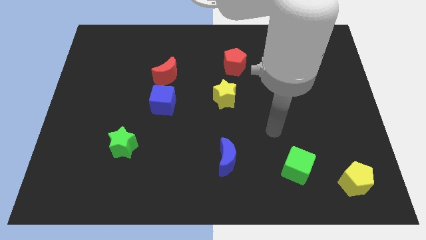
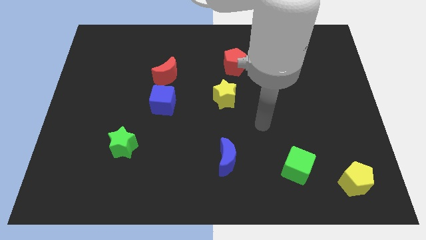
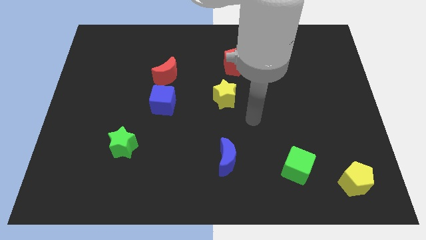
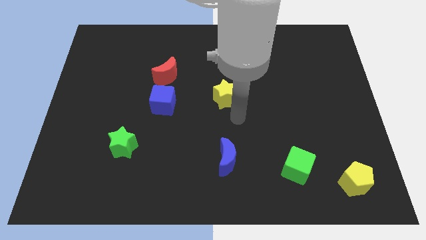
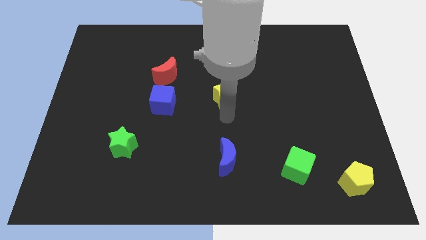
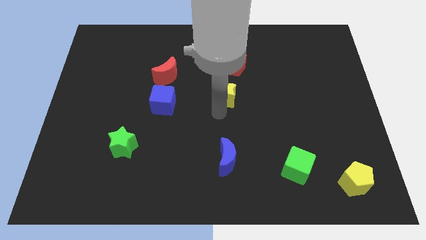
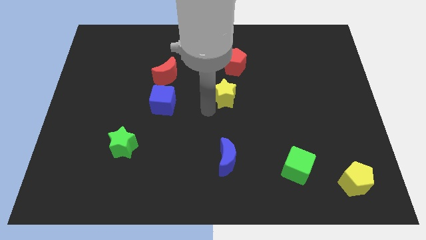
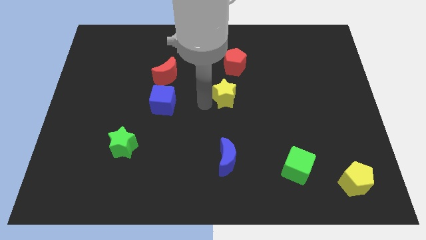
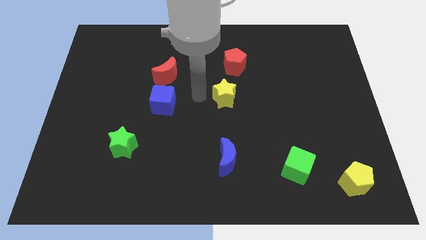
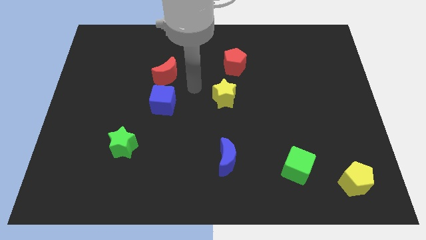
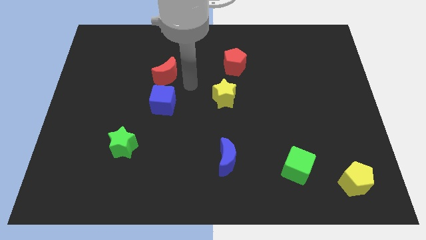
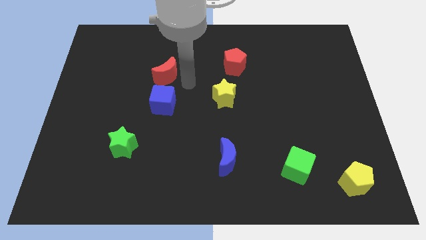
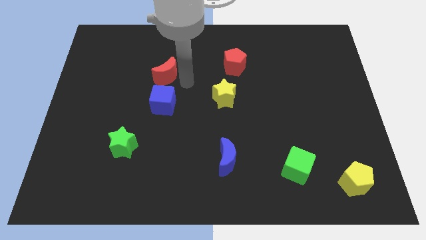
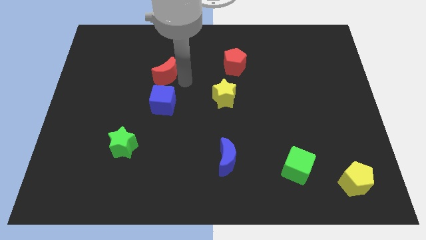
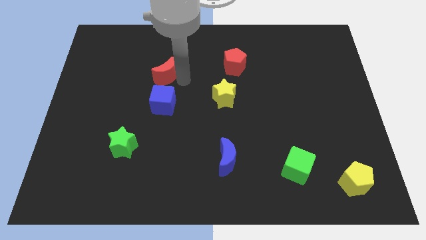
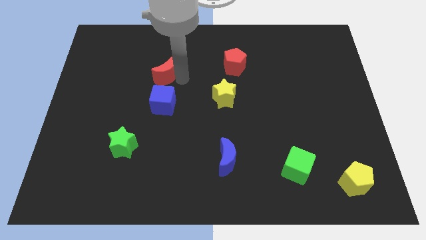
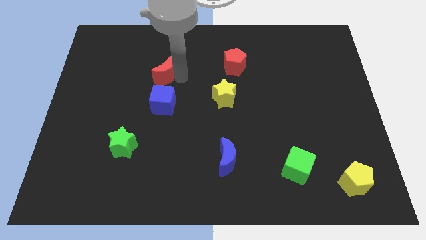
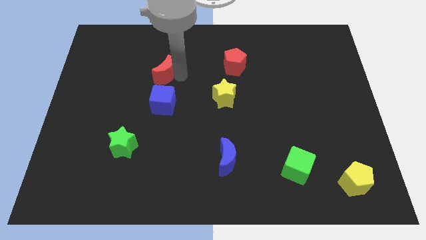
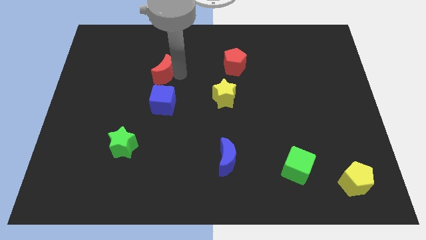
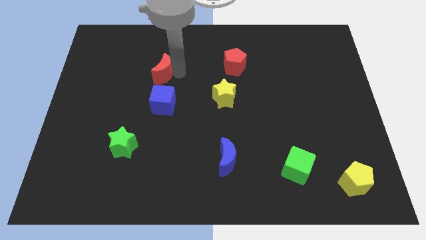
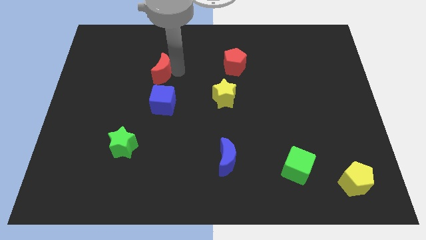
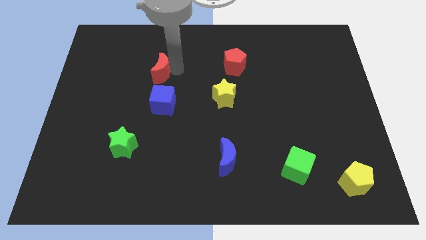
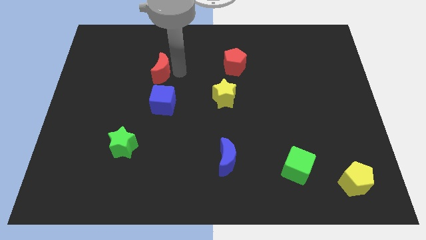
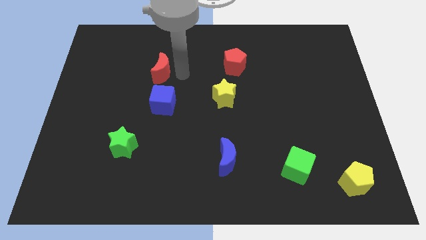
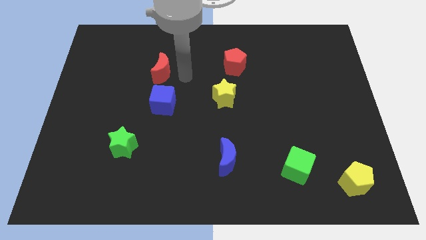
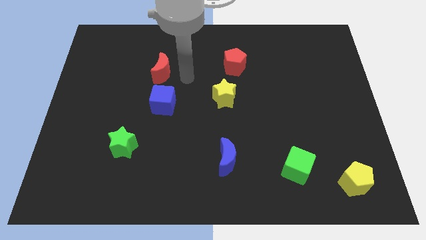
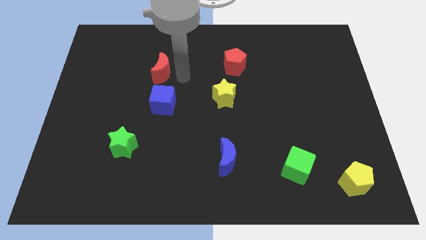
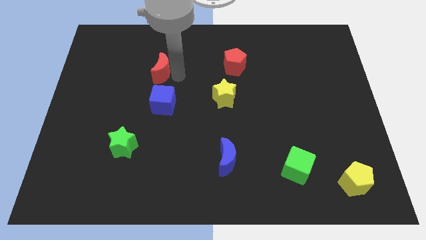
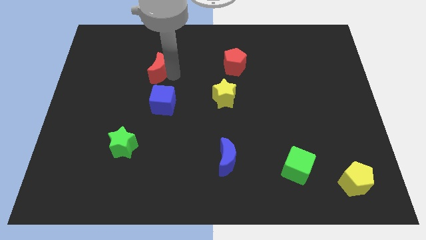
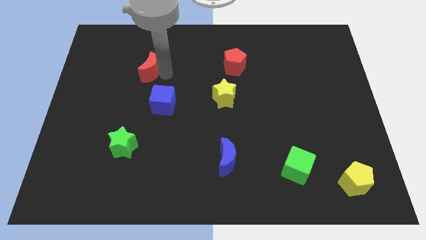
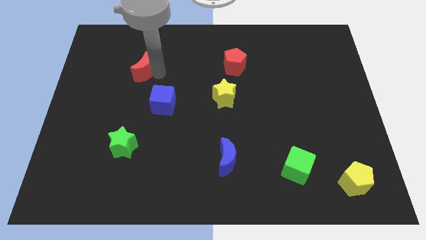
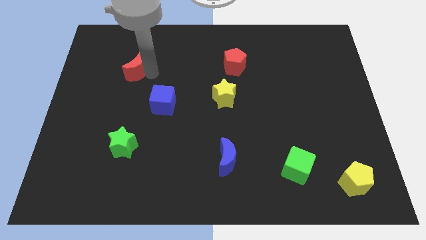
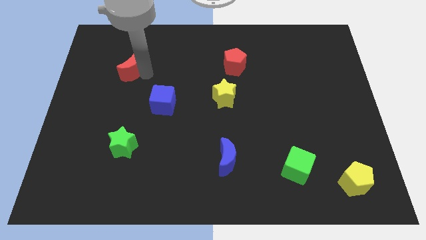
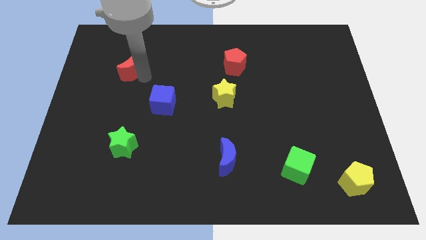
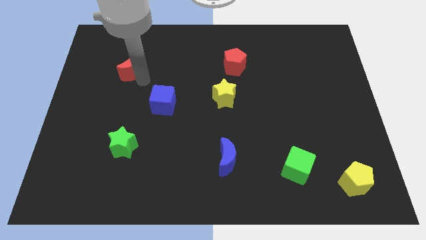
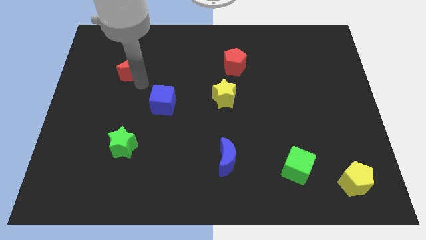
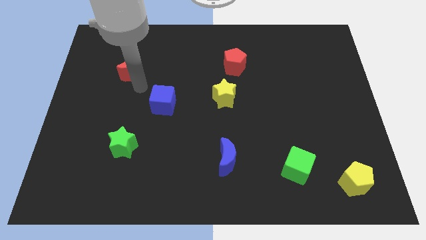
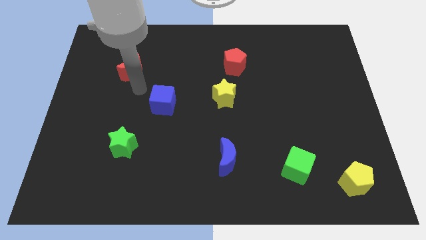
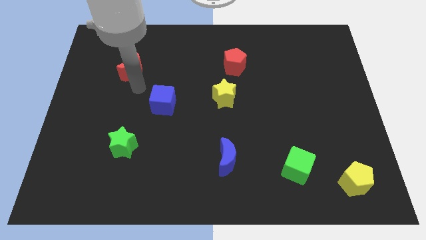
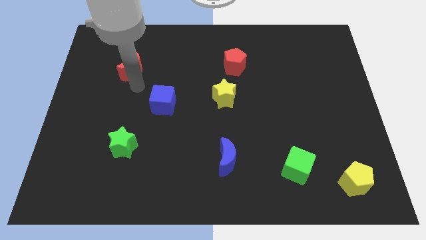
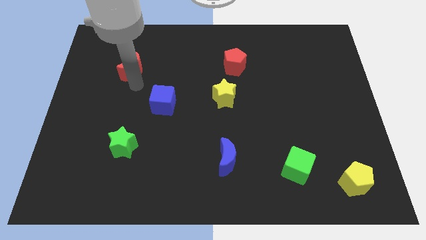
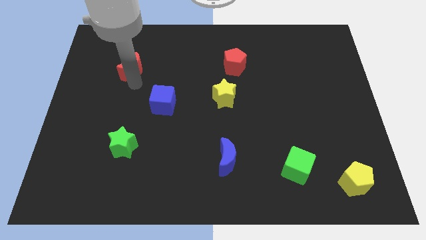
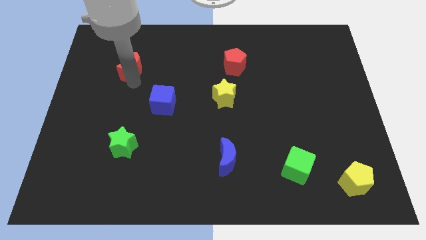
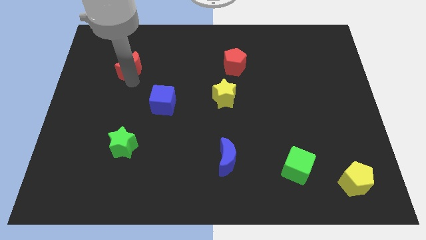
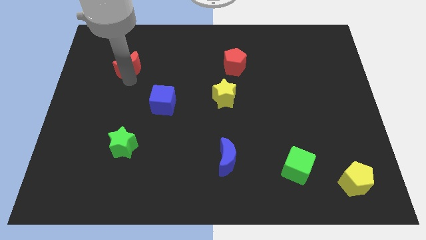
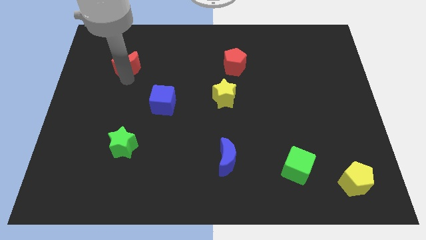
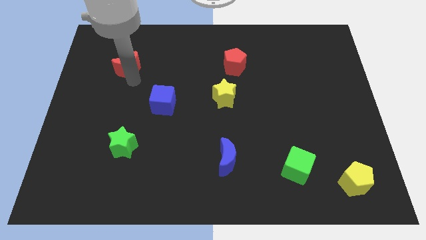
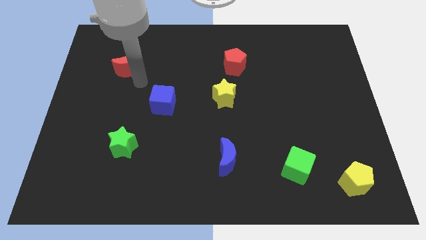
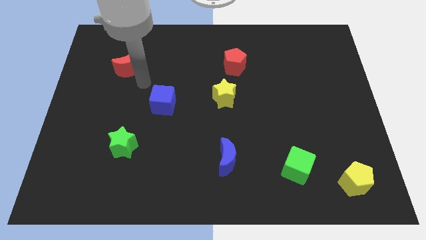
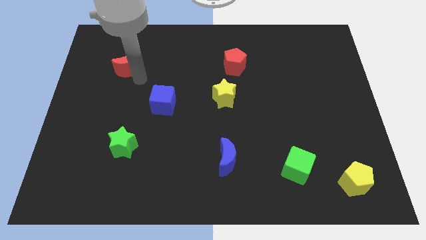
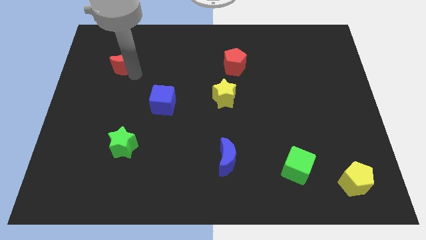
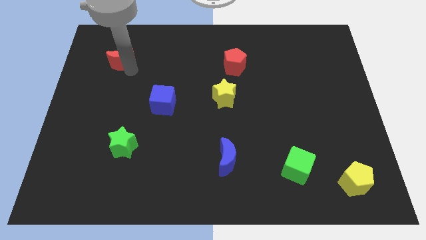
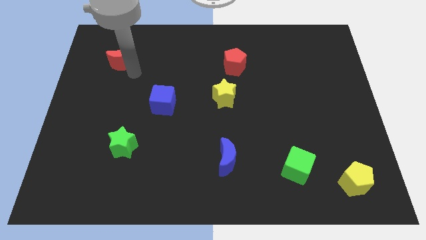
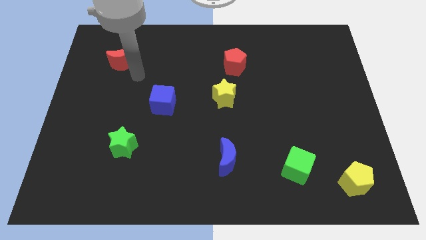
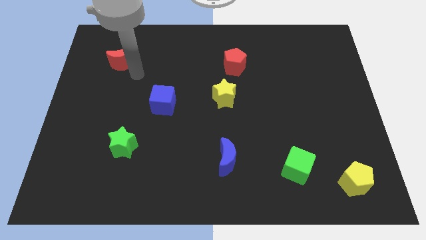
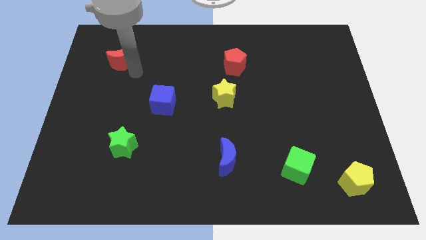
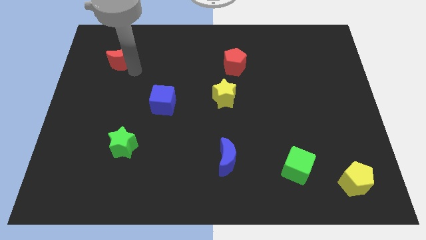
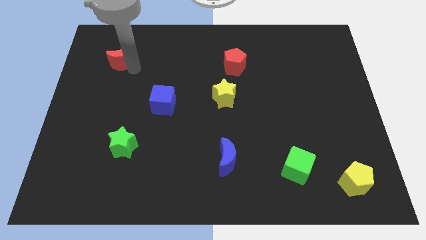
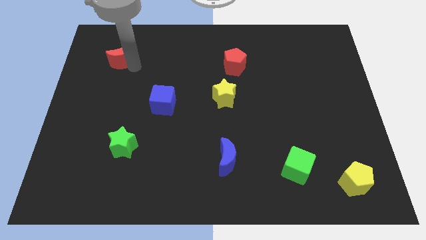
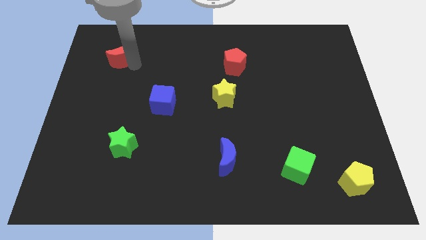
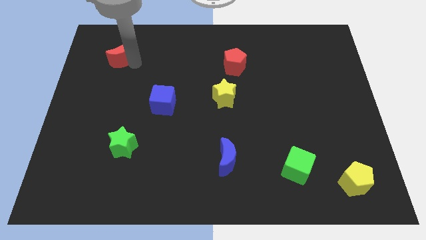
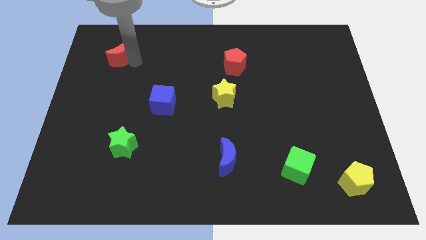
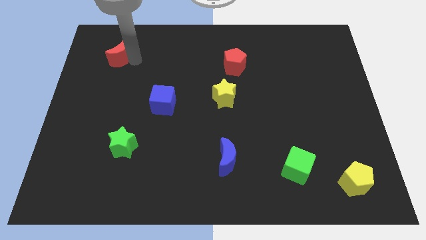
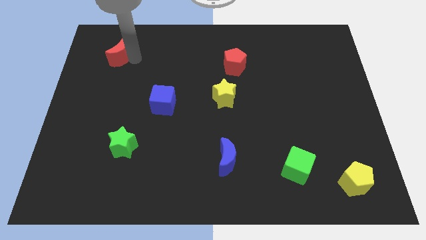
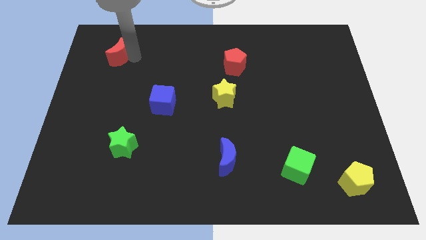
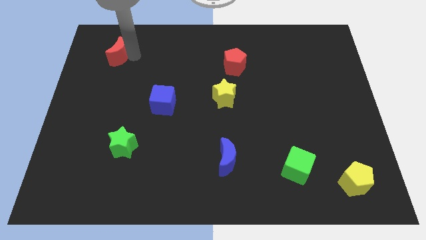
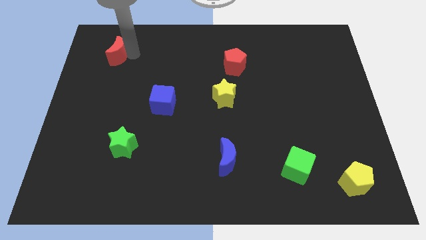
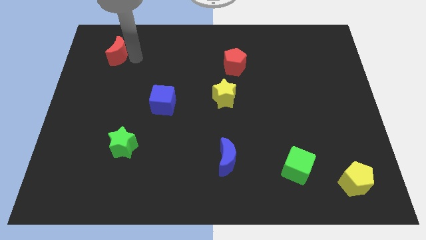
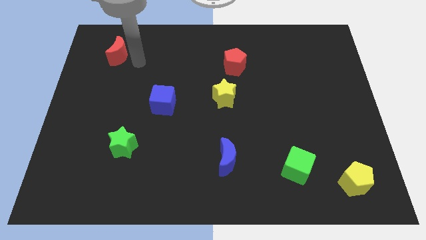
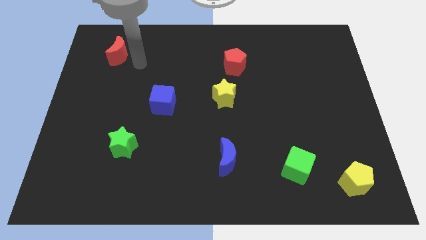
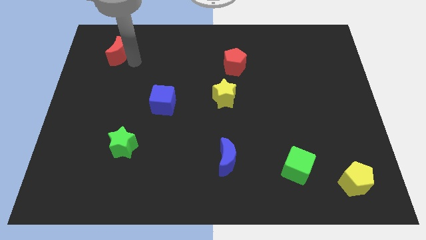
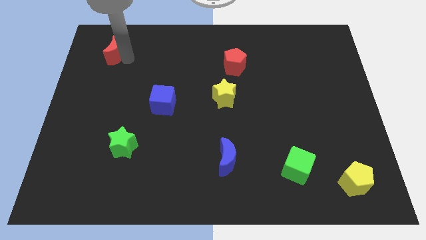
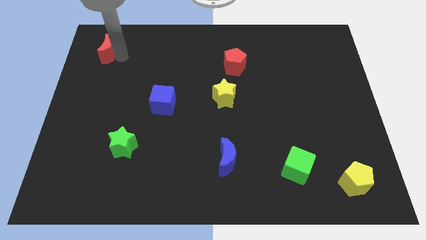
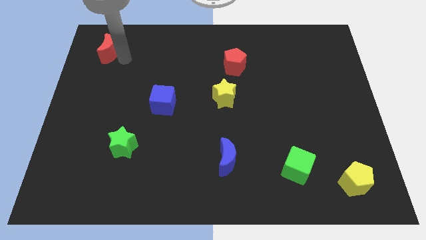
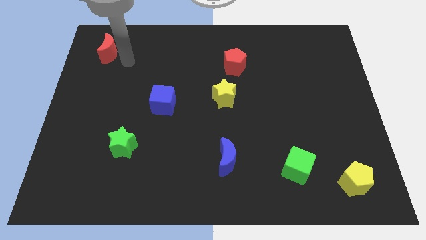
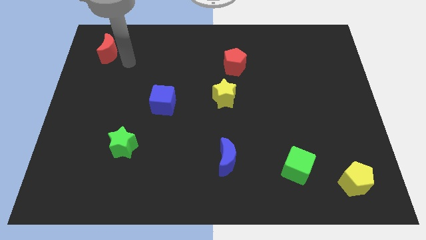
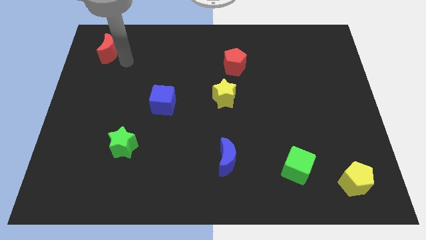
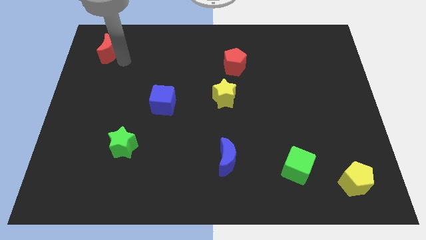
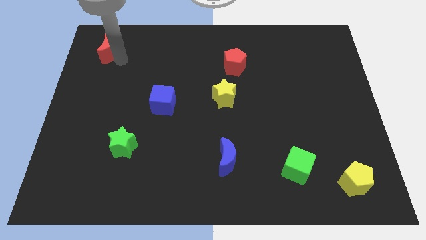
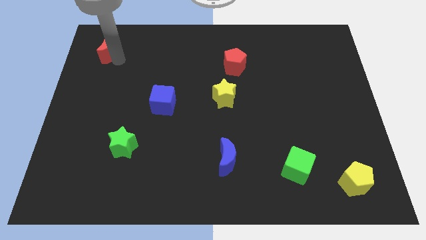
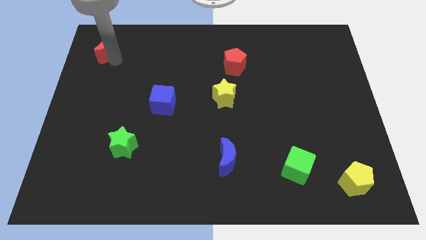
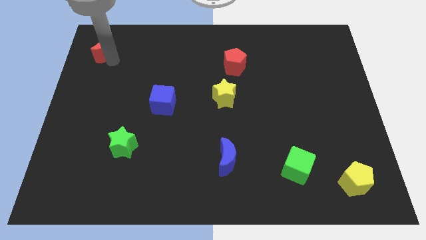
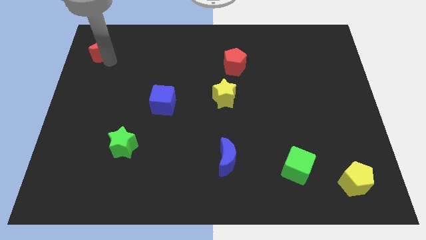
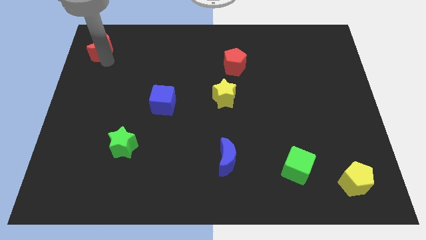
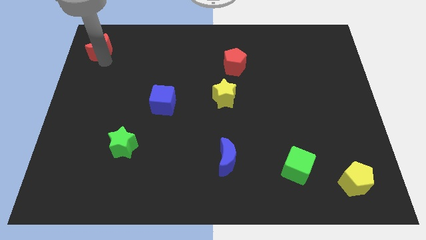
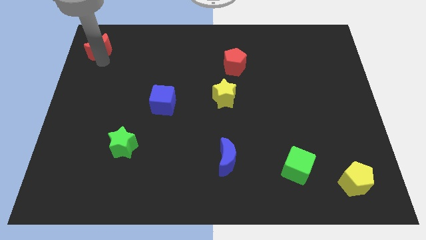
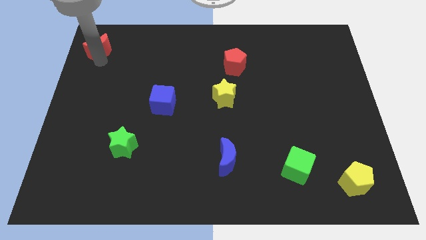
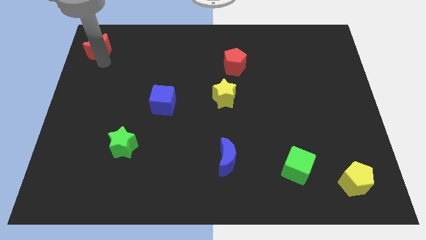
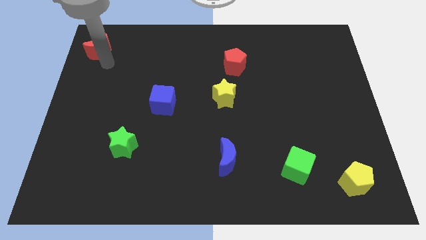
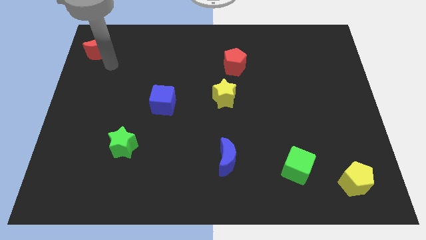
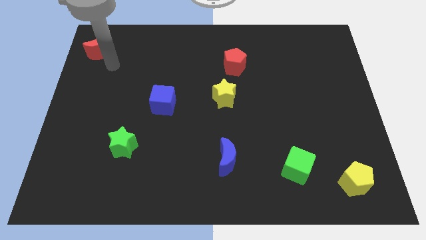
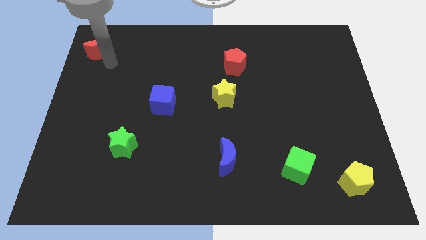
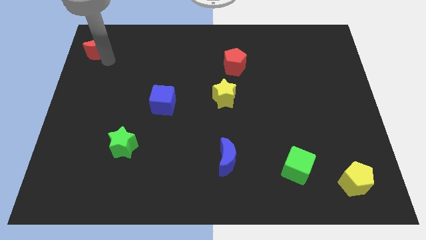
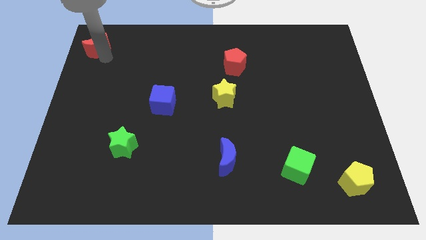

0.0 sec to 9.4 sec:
move the red moon to the top left
